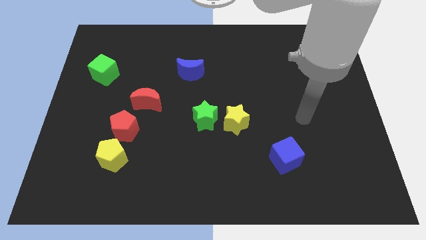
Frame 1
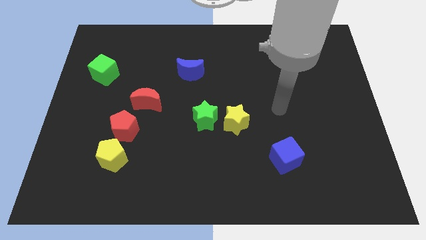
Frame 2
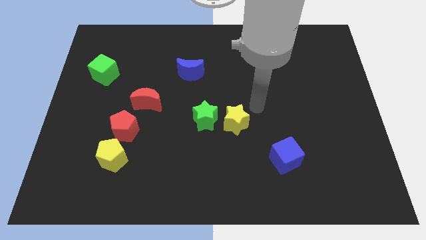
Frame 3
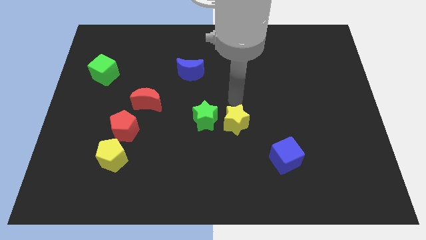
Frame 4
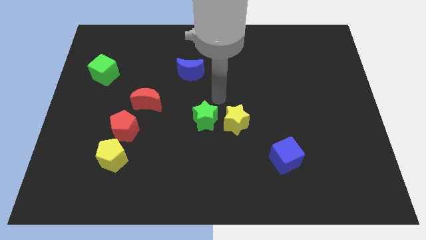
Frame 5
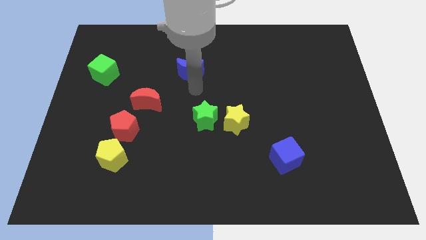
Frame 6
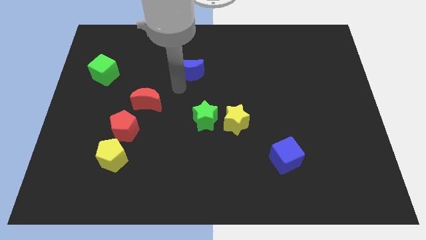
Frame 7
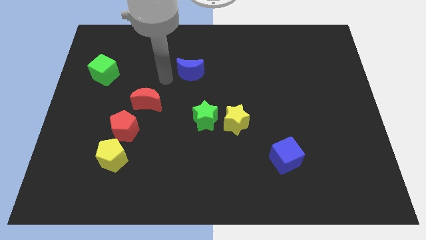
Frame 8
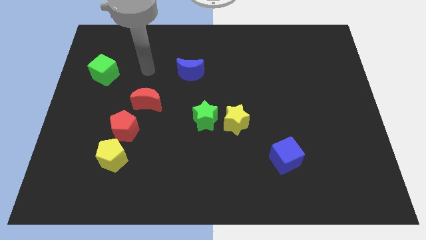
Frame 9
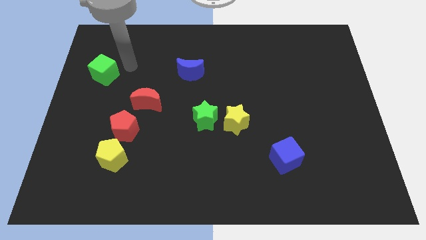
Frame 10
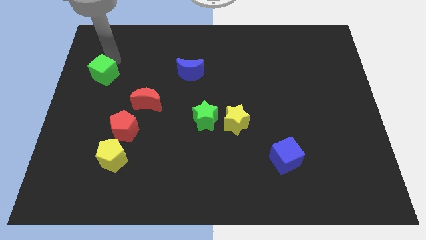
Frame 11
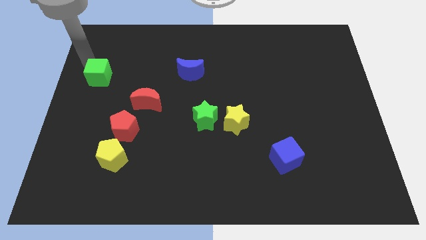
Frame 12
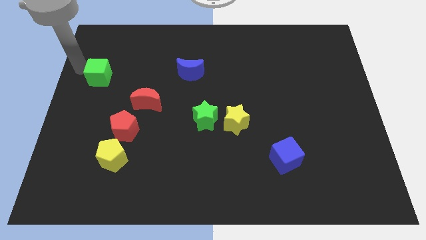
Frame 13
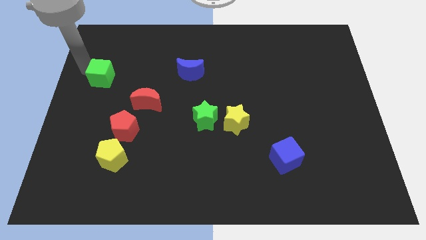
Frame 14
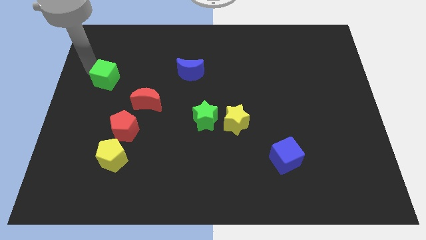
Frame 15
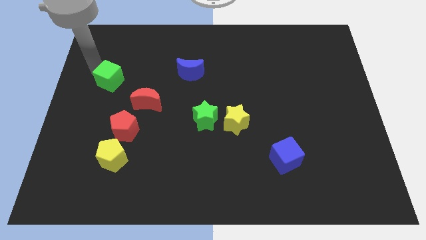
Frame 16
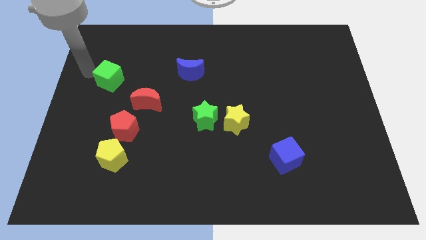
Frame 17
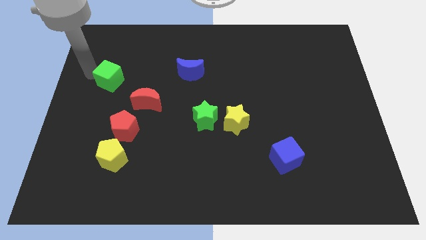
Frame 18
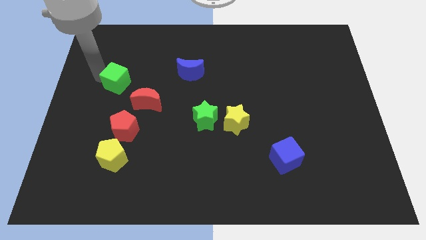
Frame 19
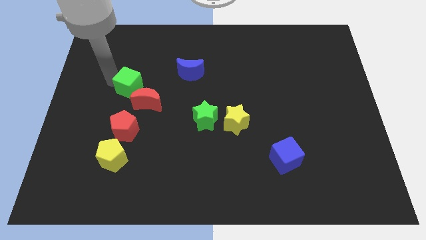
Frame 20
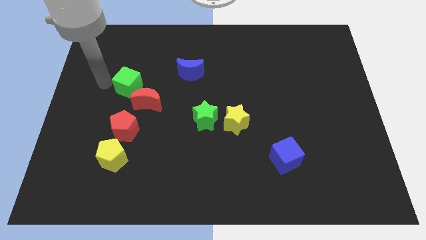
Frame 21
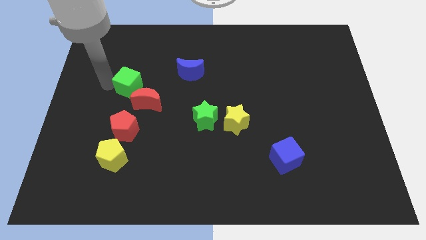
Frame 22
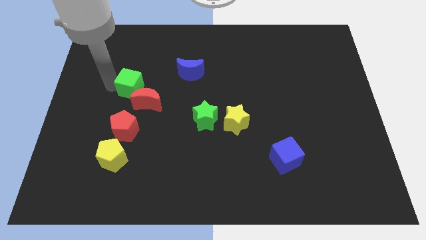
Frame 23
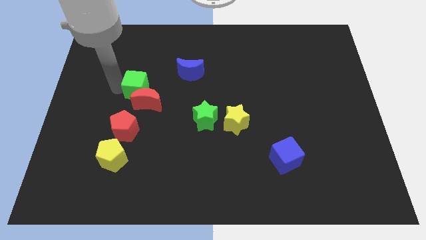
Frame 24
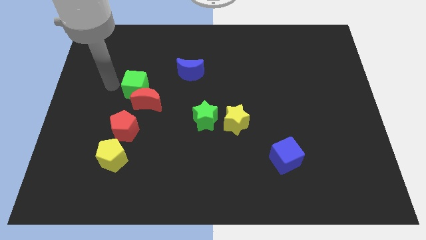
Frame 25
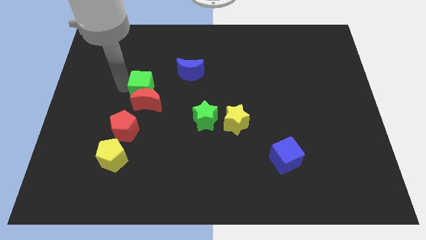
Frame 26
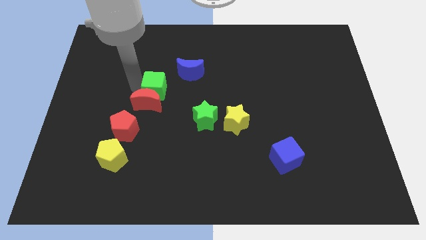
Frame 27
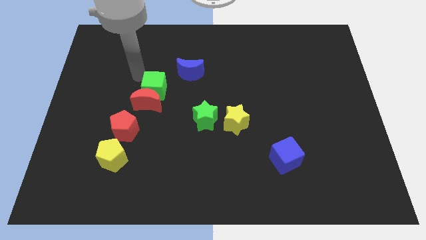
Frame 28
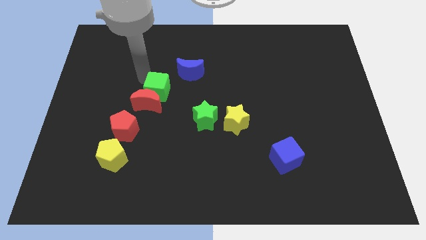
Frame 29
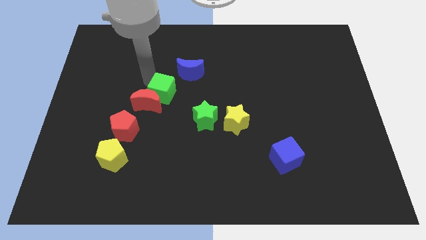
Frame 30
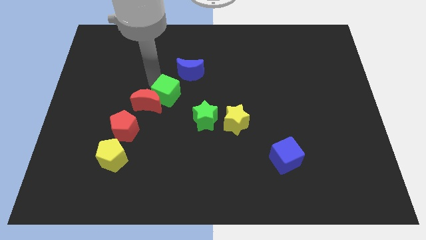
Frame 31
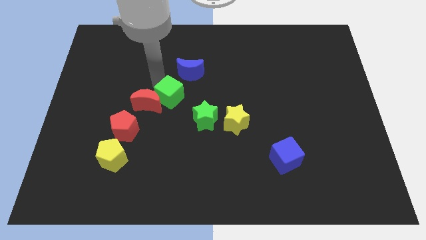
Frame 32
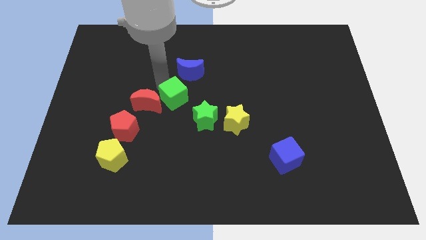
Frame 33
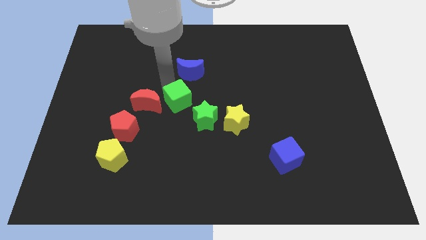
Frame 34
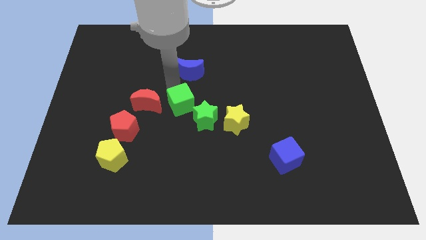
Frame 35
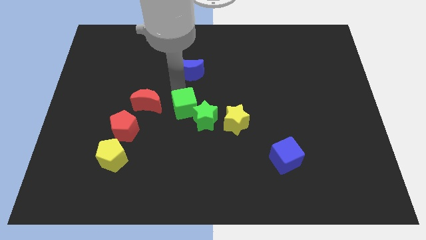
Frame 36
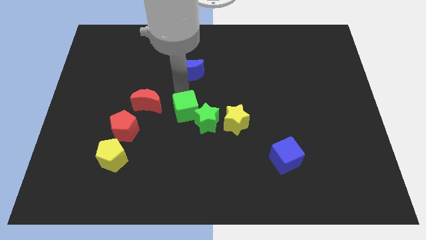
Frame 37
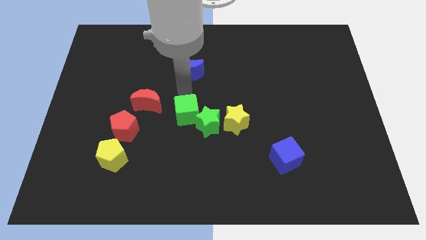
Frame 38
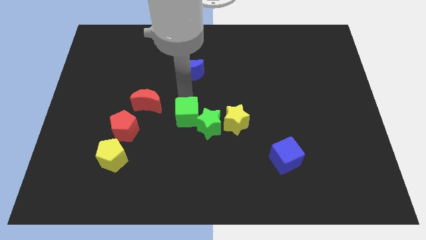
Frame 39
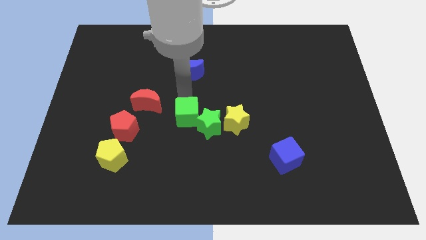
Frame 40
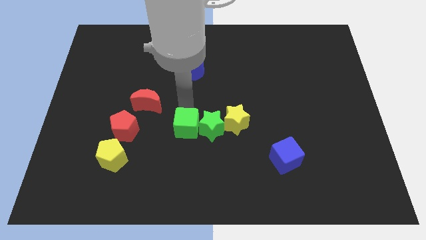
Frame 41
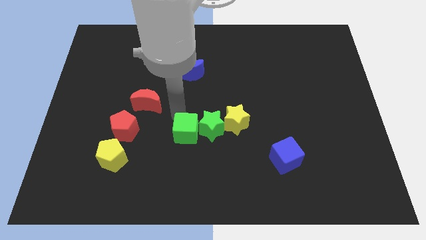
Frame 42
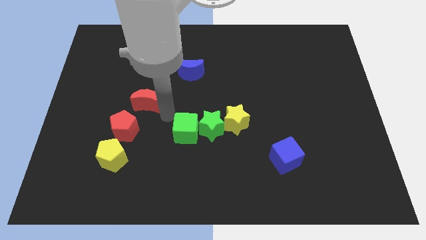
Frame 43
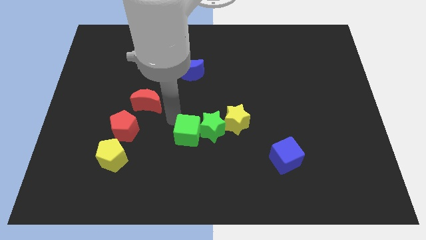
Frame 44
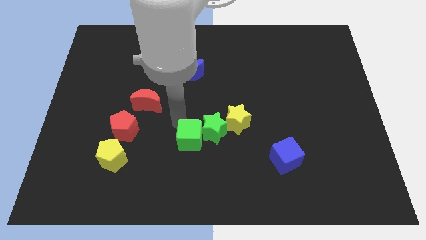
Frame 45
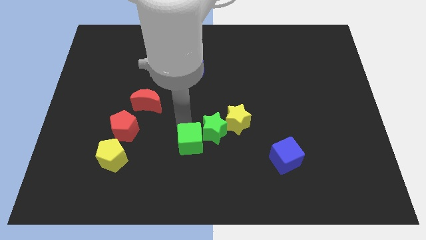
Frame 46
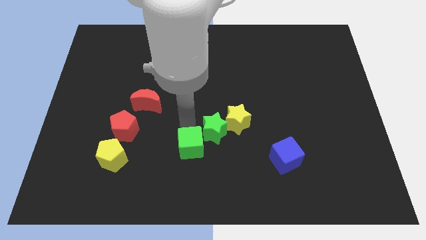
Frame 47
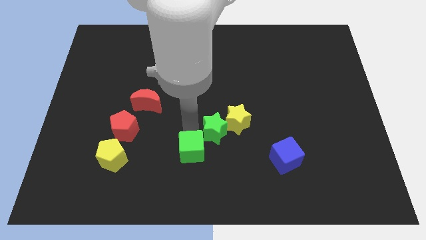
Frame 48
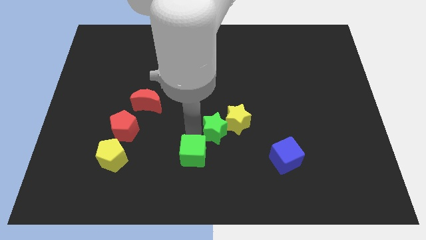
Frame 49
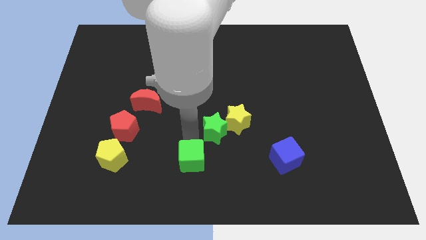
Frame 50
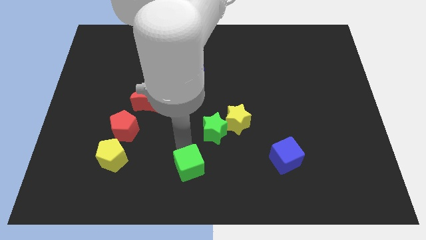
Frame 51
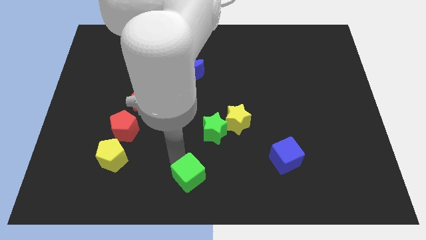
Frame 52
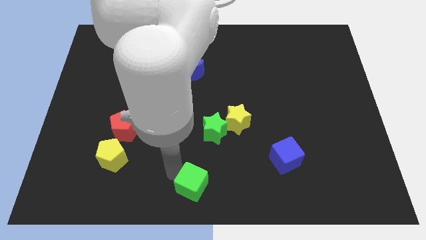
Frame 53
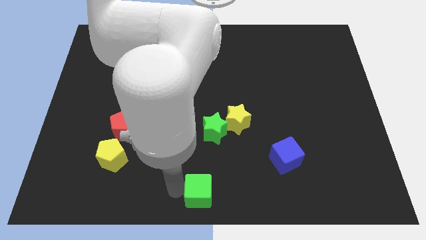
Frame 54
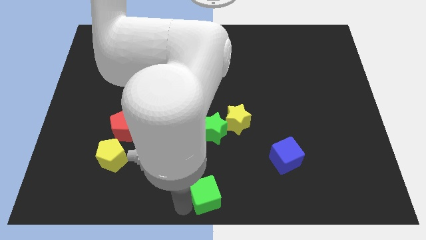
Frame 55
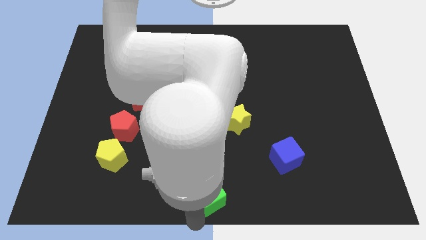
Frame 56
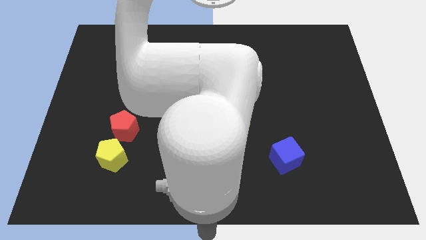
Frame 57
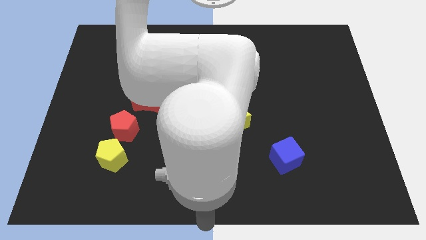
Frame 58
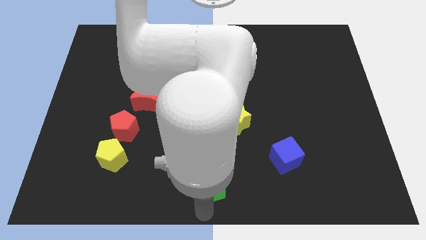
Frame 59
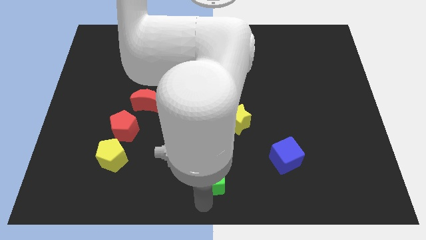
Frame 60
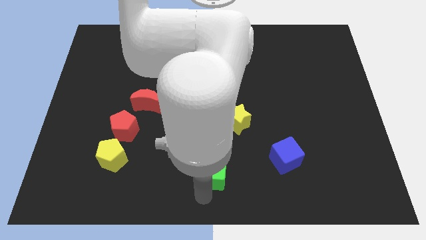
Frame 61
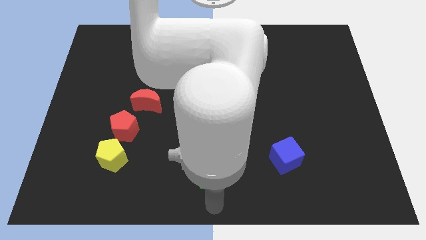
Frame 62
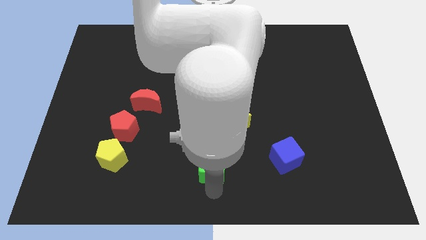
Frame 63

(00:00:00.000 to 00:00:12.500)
move the green cube to the left of the blue cube

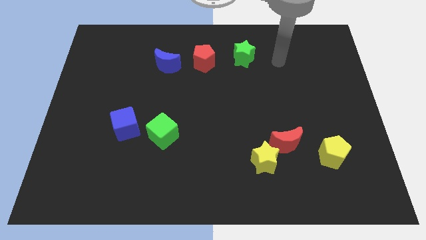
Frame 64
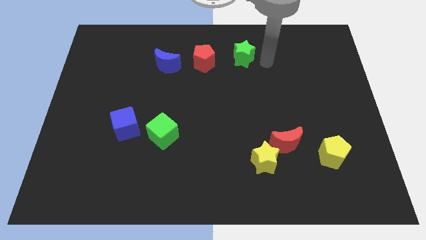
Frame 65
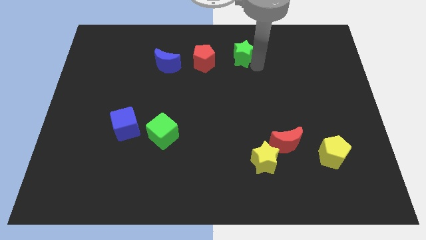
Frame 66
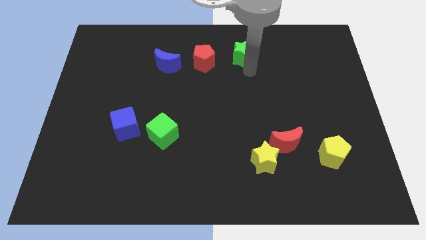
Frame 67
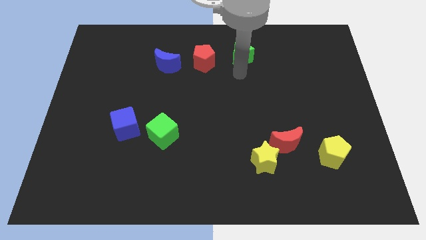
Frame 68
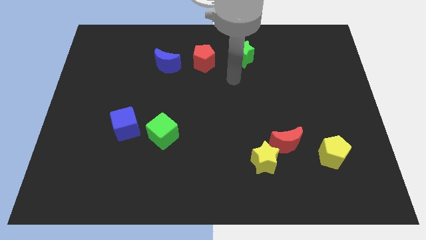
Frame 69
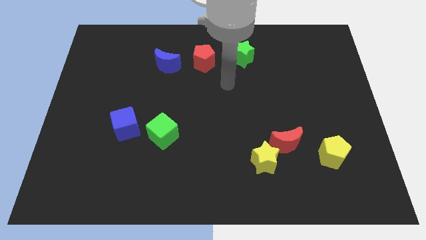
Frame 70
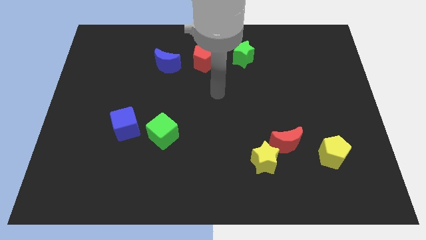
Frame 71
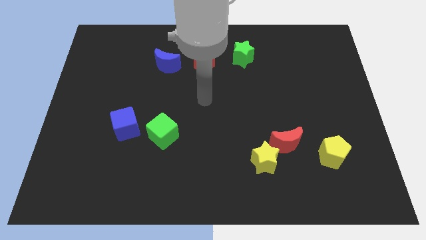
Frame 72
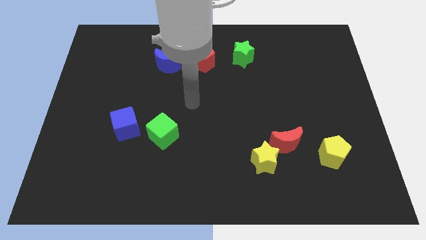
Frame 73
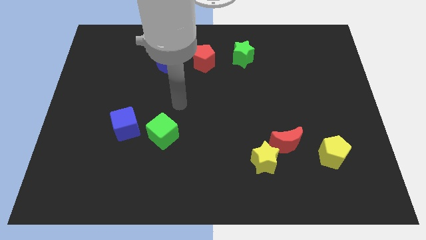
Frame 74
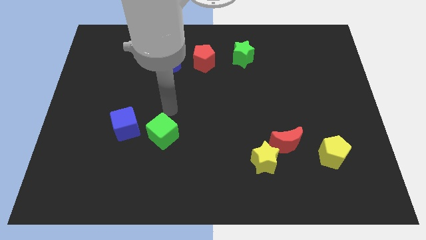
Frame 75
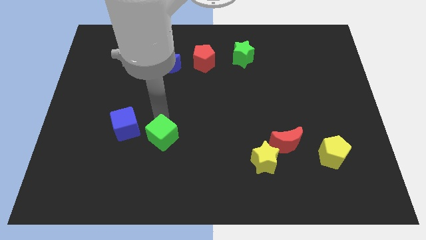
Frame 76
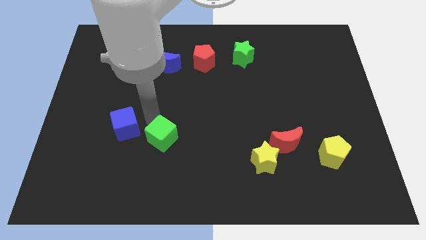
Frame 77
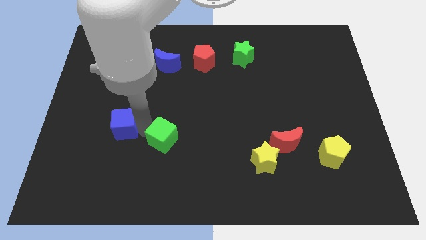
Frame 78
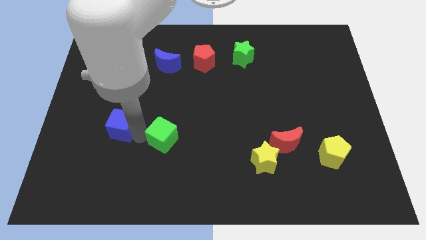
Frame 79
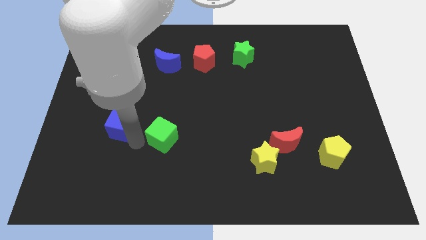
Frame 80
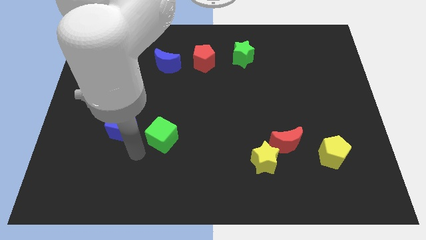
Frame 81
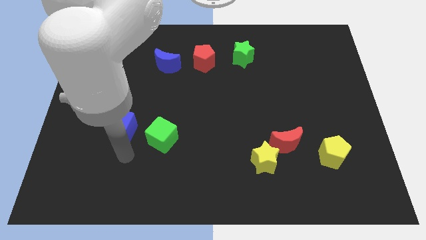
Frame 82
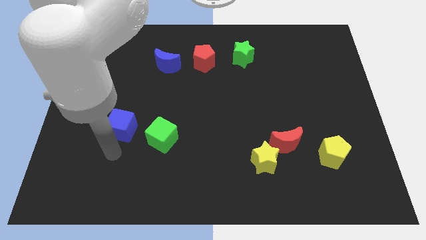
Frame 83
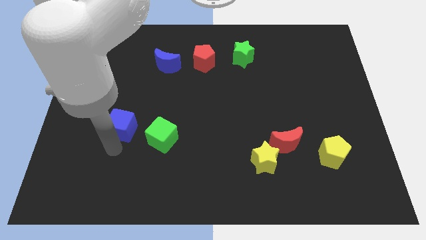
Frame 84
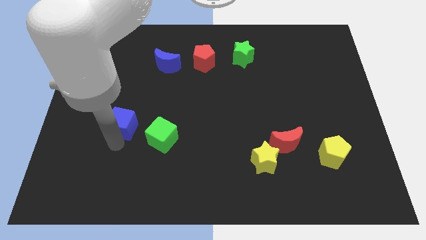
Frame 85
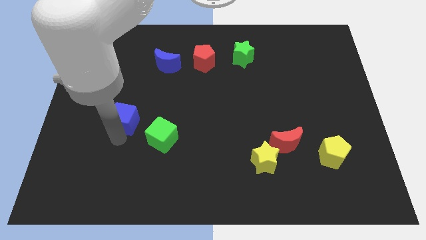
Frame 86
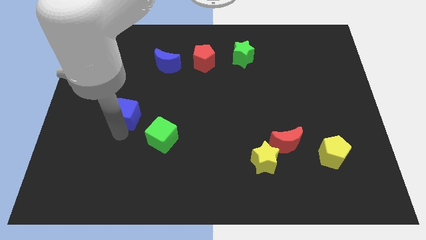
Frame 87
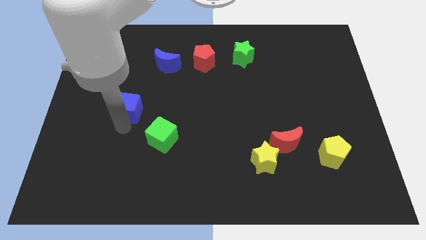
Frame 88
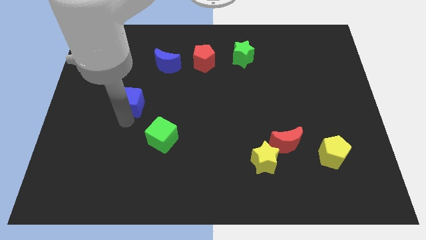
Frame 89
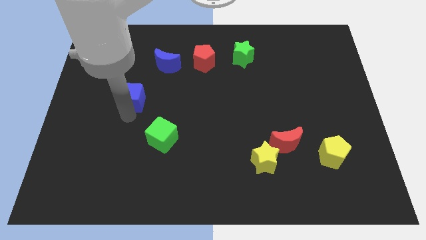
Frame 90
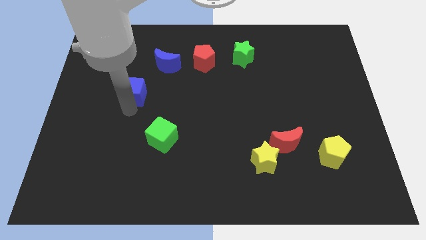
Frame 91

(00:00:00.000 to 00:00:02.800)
put the blue cube to the bottom left of the blue moon
